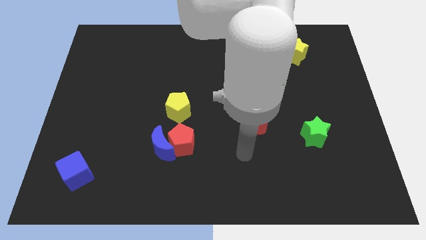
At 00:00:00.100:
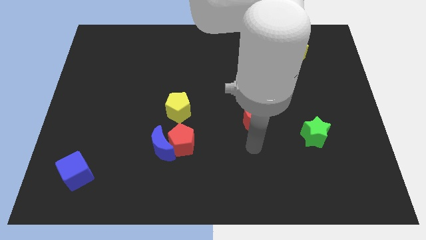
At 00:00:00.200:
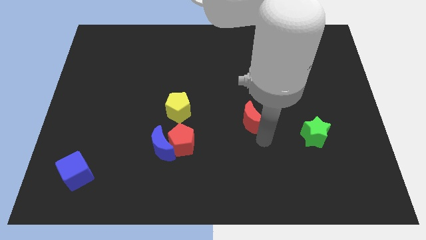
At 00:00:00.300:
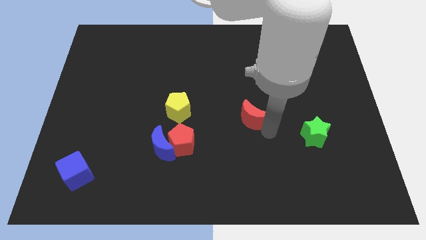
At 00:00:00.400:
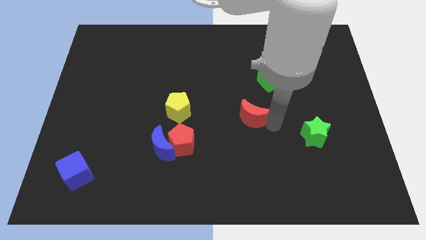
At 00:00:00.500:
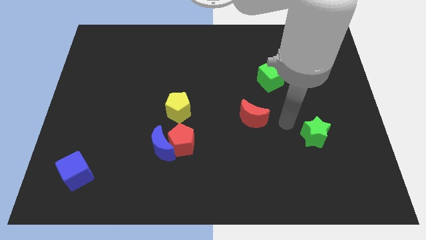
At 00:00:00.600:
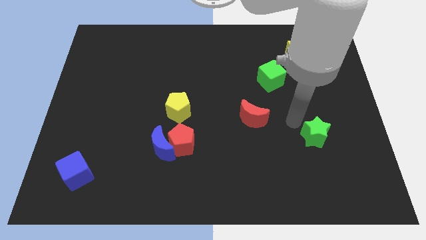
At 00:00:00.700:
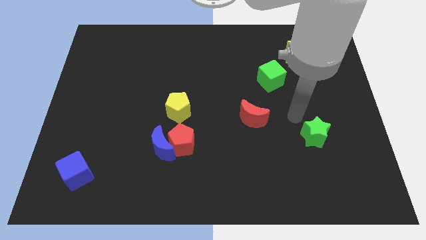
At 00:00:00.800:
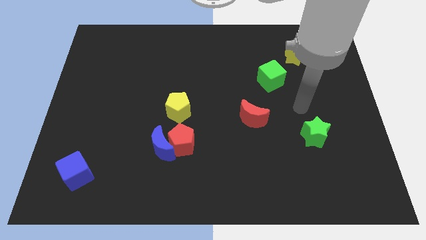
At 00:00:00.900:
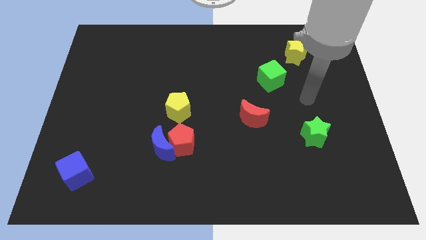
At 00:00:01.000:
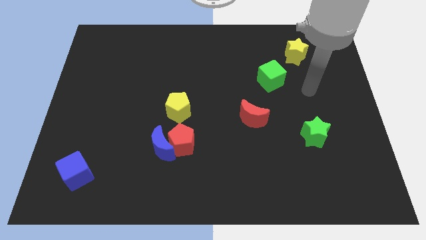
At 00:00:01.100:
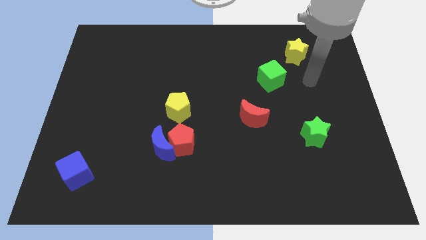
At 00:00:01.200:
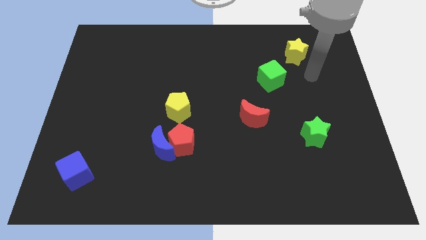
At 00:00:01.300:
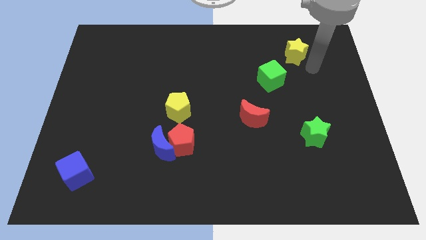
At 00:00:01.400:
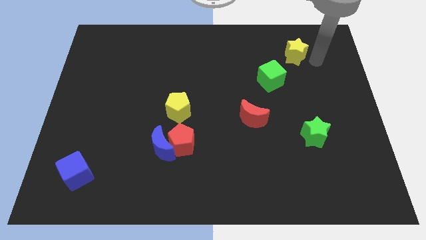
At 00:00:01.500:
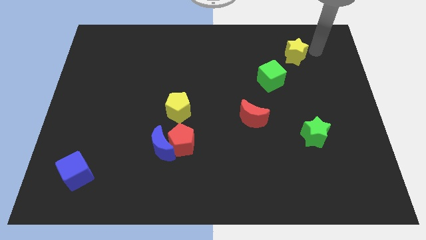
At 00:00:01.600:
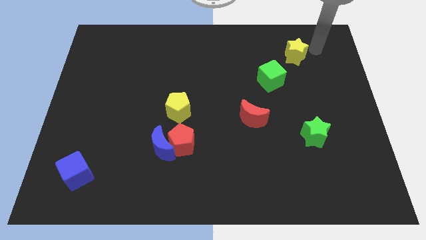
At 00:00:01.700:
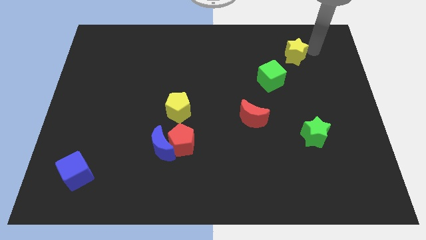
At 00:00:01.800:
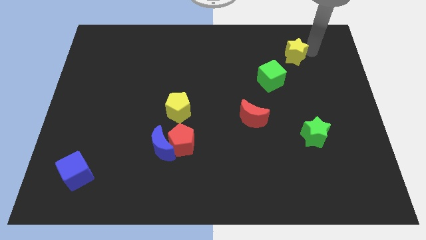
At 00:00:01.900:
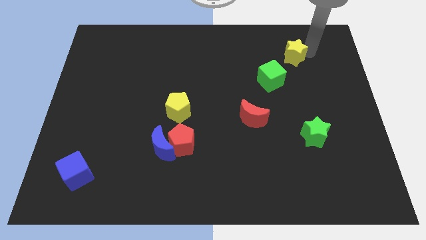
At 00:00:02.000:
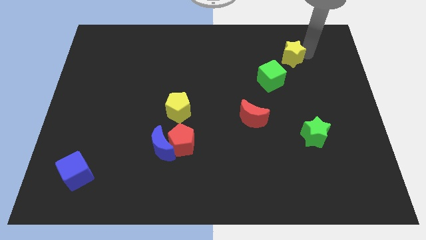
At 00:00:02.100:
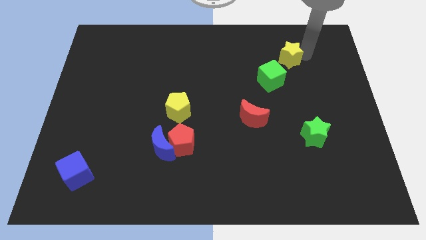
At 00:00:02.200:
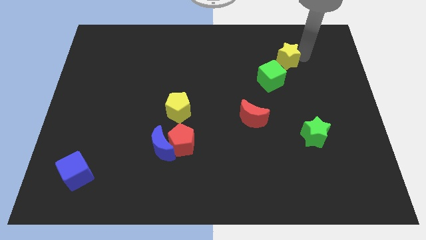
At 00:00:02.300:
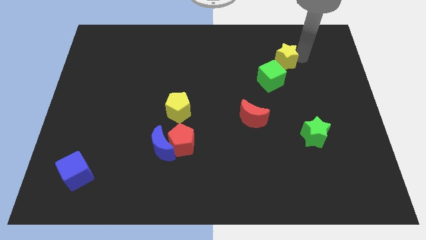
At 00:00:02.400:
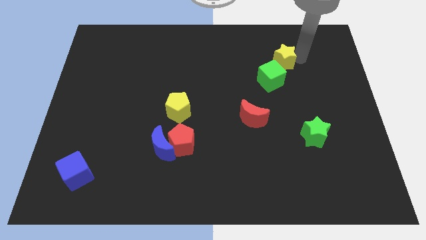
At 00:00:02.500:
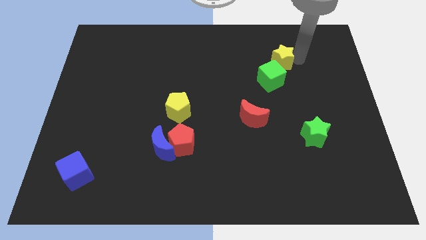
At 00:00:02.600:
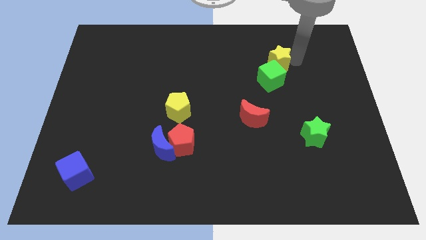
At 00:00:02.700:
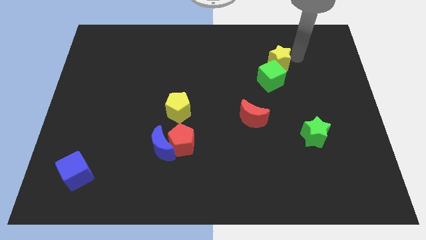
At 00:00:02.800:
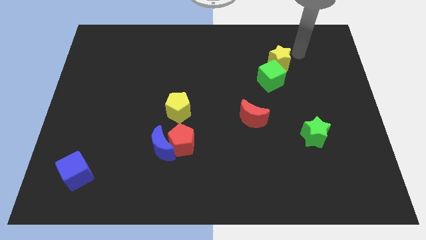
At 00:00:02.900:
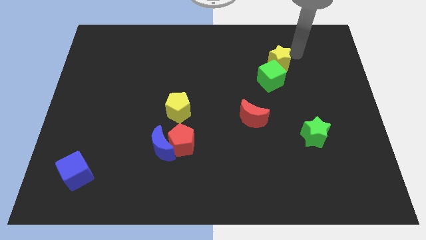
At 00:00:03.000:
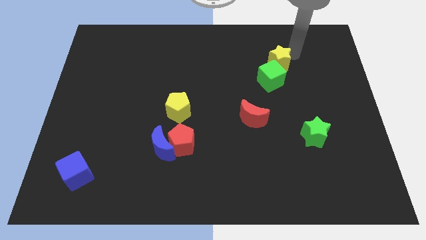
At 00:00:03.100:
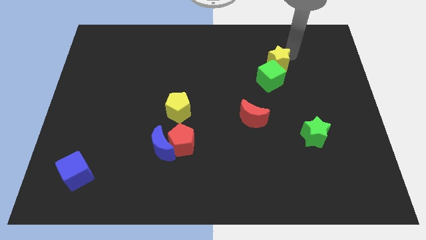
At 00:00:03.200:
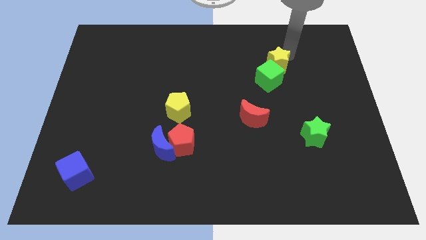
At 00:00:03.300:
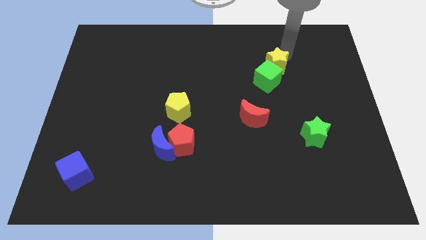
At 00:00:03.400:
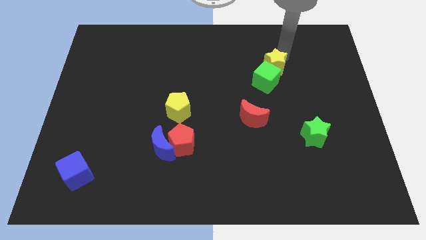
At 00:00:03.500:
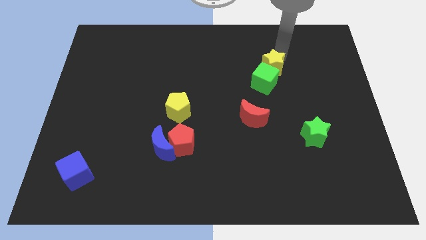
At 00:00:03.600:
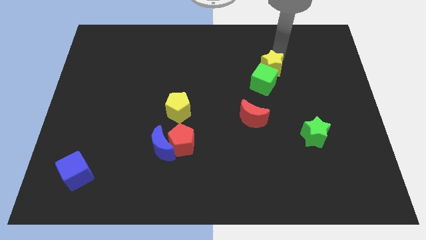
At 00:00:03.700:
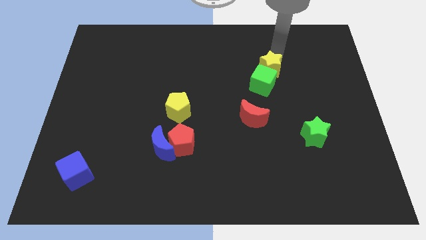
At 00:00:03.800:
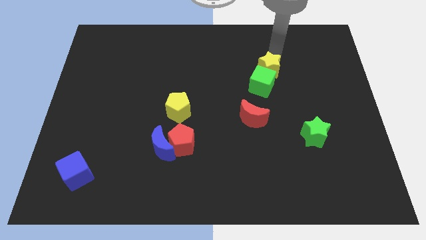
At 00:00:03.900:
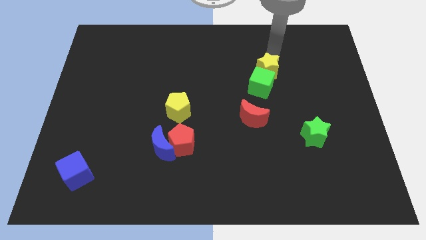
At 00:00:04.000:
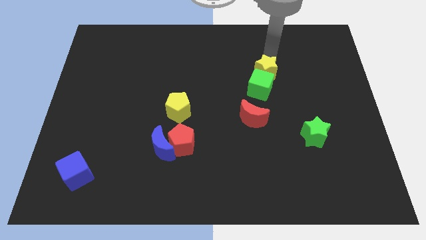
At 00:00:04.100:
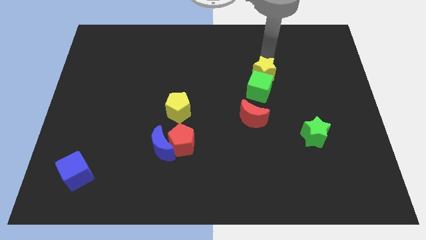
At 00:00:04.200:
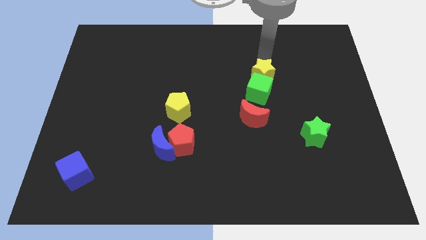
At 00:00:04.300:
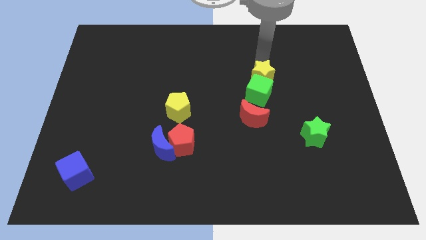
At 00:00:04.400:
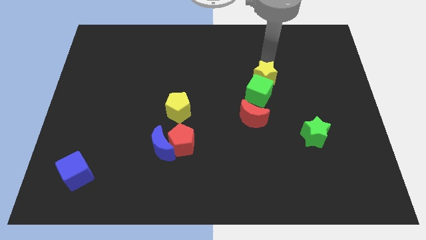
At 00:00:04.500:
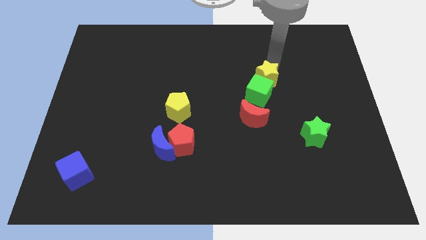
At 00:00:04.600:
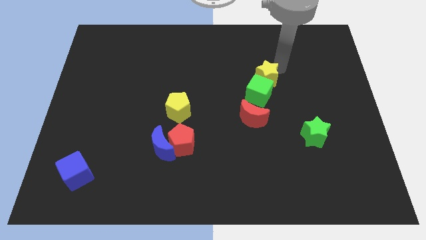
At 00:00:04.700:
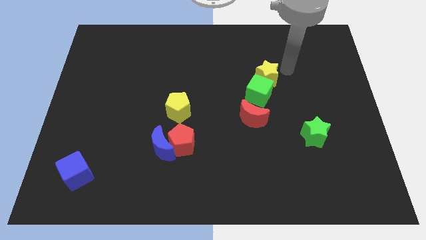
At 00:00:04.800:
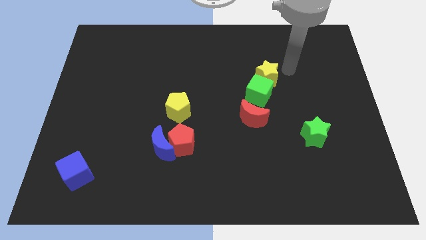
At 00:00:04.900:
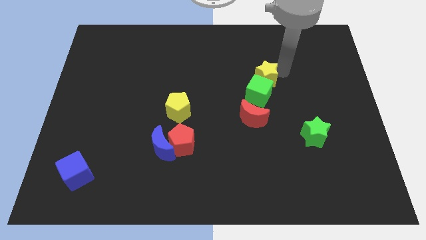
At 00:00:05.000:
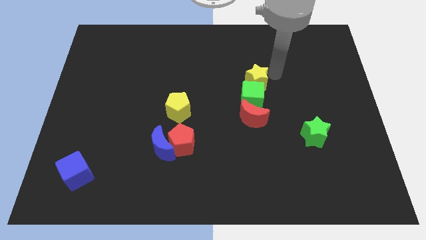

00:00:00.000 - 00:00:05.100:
slide the yellow star to the center of the board

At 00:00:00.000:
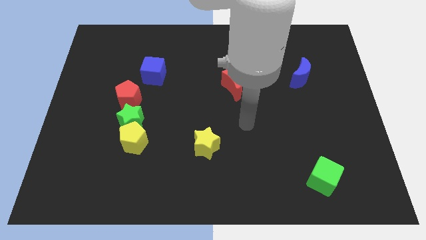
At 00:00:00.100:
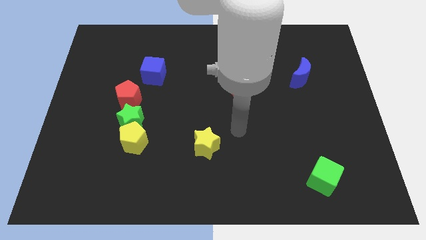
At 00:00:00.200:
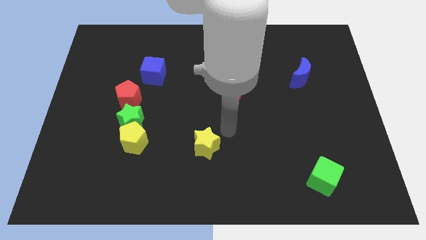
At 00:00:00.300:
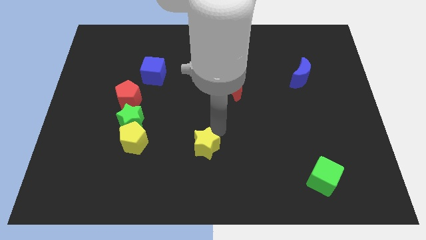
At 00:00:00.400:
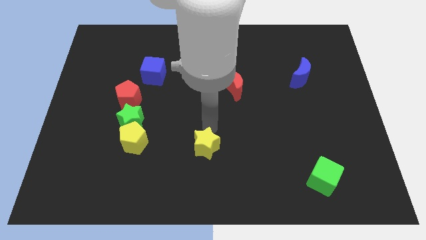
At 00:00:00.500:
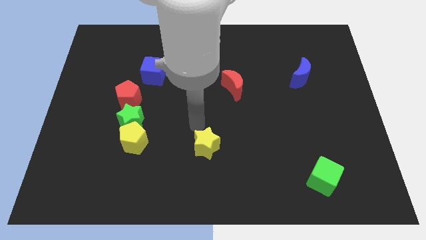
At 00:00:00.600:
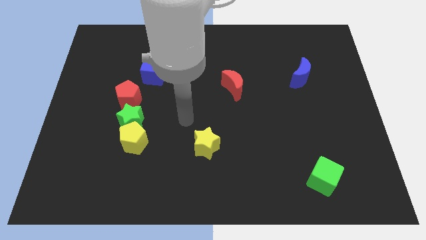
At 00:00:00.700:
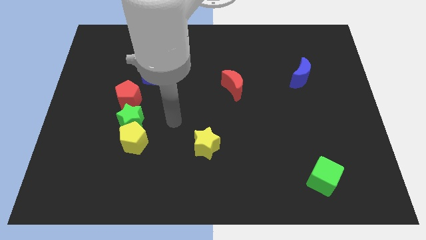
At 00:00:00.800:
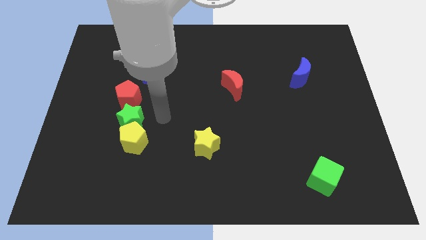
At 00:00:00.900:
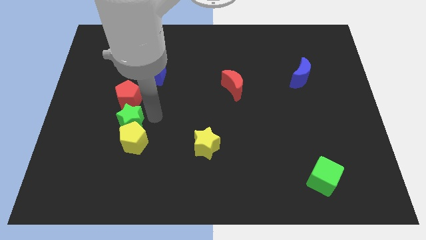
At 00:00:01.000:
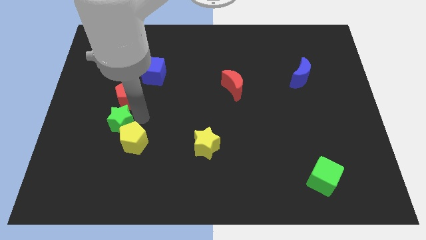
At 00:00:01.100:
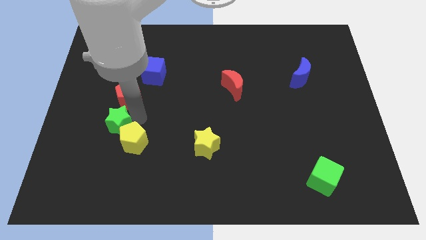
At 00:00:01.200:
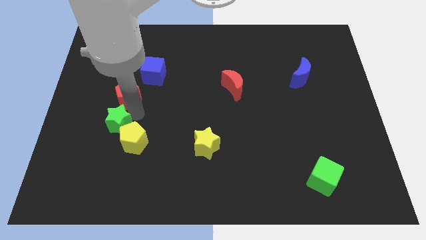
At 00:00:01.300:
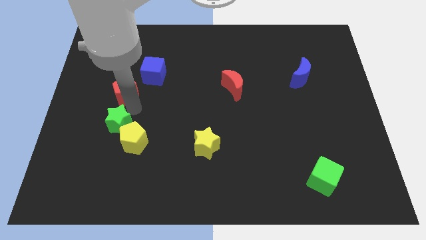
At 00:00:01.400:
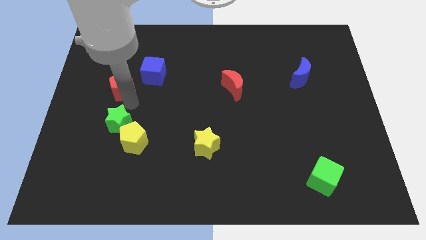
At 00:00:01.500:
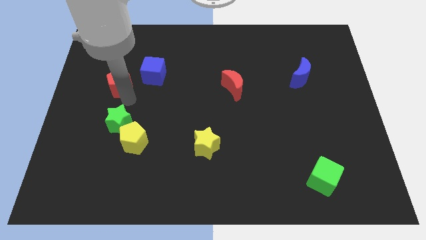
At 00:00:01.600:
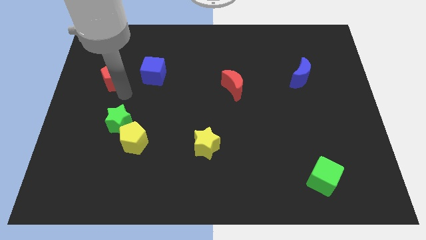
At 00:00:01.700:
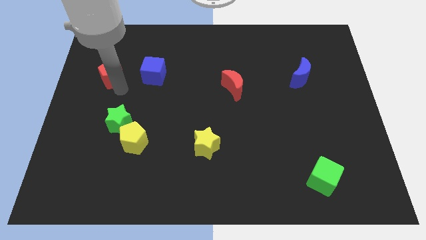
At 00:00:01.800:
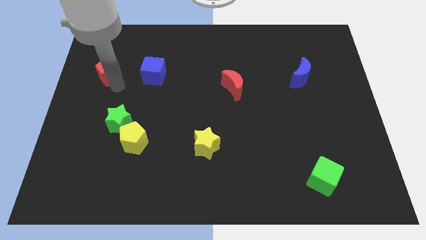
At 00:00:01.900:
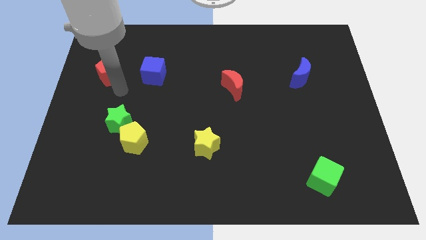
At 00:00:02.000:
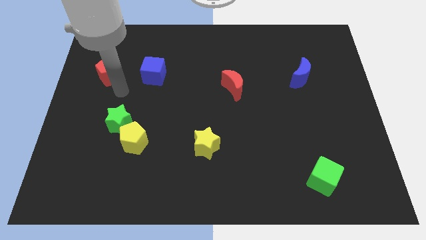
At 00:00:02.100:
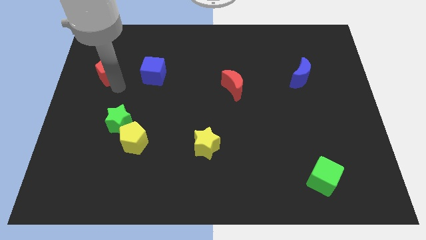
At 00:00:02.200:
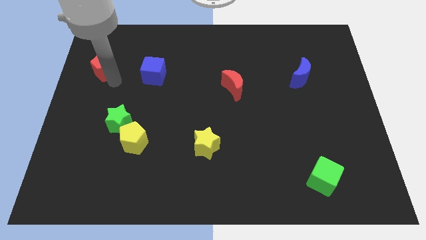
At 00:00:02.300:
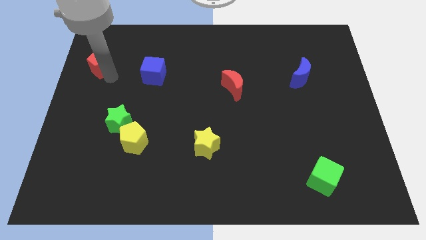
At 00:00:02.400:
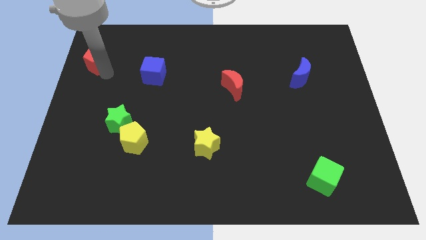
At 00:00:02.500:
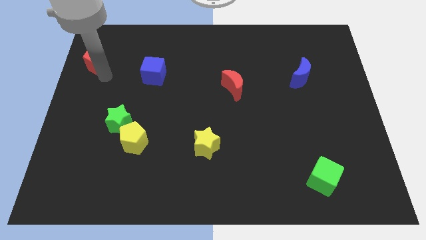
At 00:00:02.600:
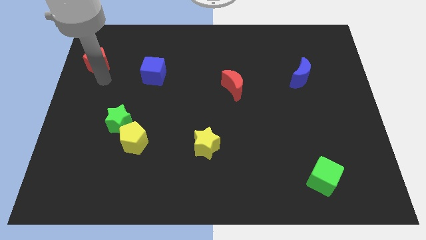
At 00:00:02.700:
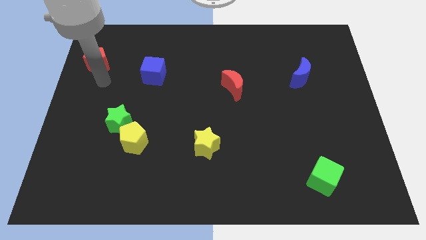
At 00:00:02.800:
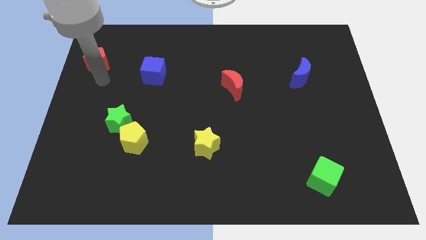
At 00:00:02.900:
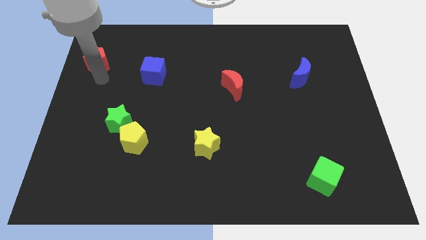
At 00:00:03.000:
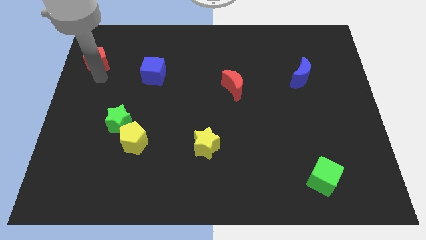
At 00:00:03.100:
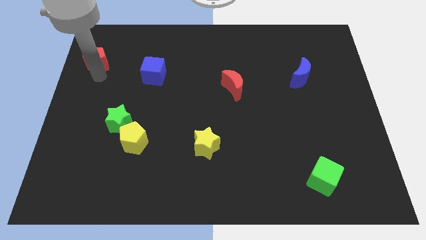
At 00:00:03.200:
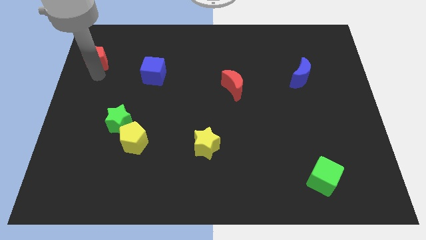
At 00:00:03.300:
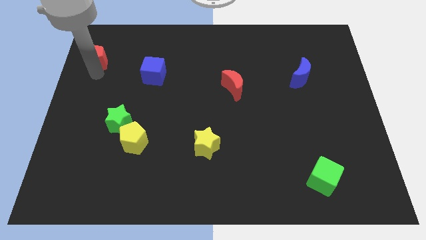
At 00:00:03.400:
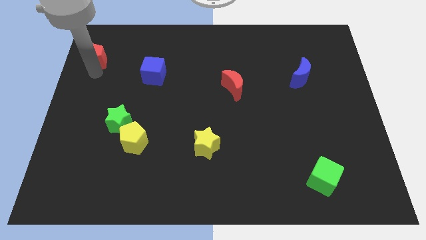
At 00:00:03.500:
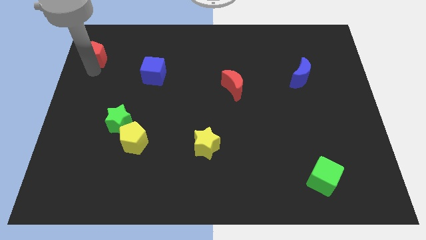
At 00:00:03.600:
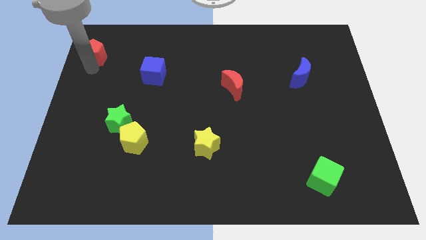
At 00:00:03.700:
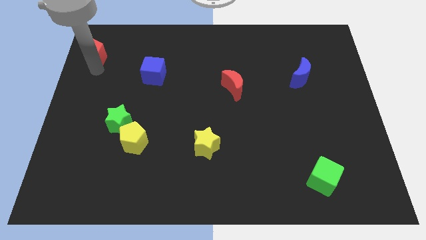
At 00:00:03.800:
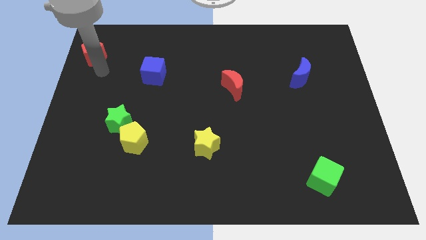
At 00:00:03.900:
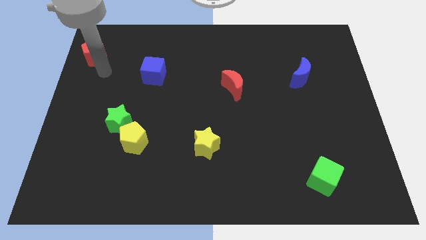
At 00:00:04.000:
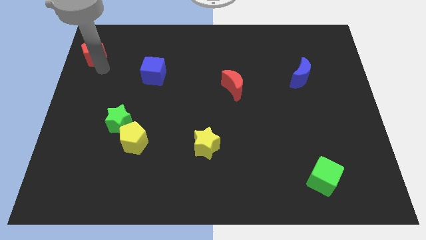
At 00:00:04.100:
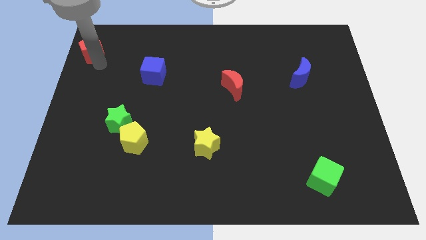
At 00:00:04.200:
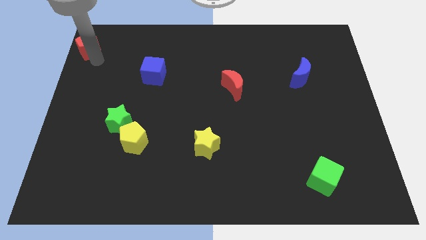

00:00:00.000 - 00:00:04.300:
slide the red pentagon to the top left corner
